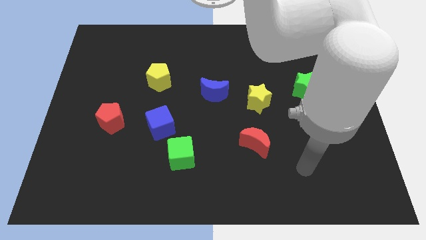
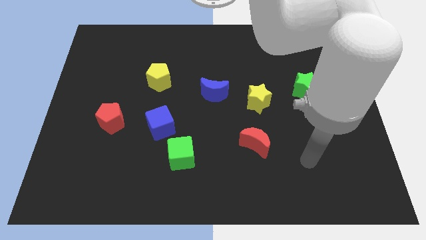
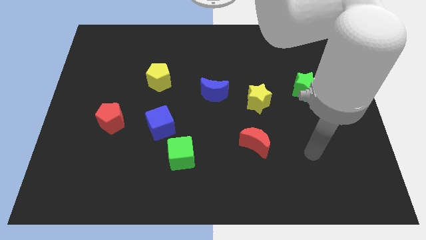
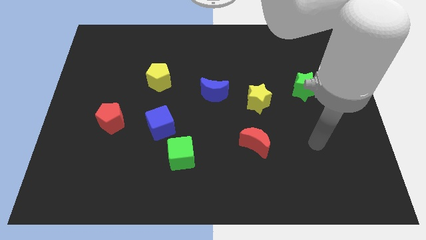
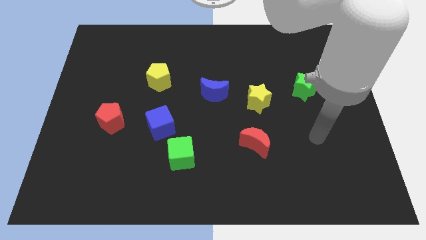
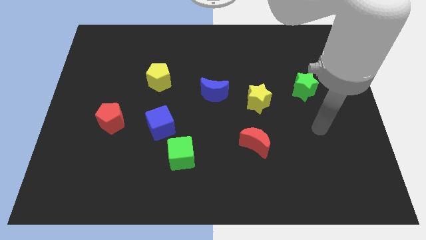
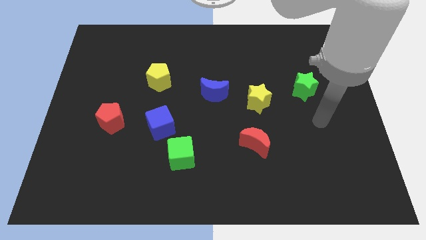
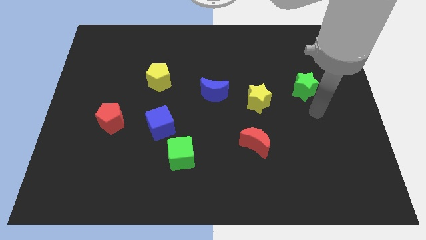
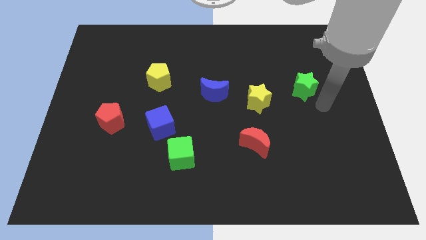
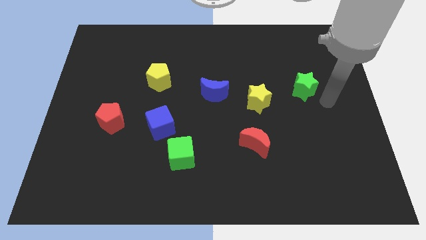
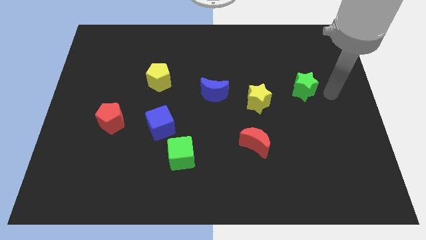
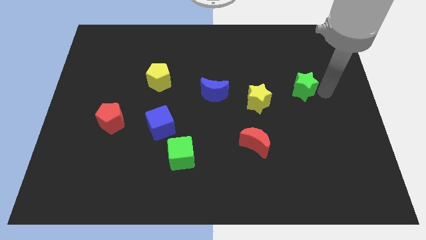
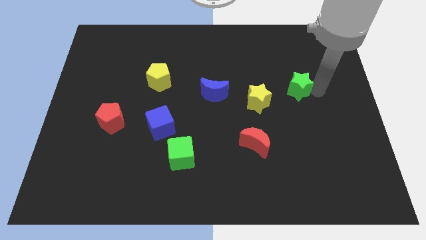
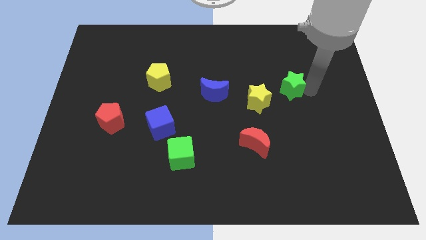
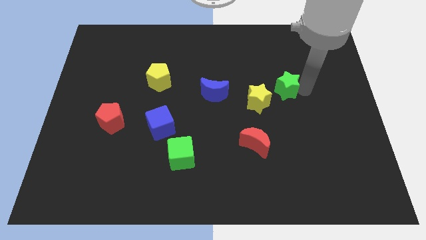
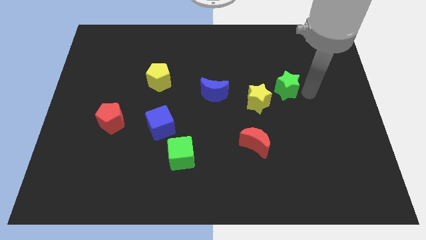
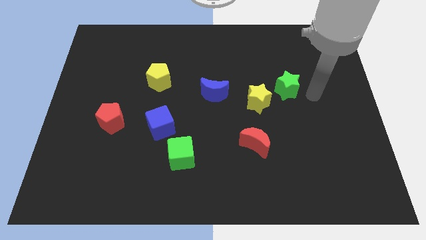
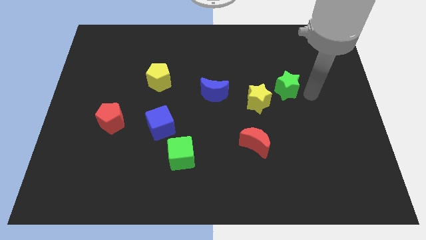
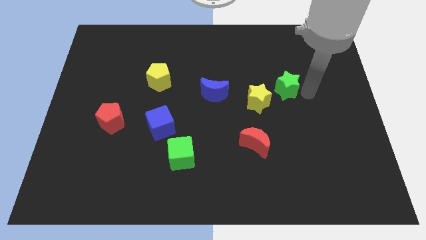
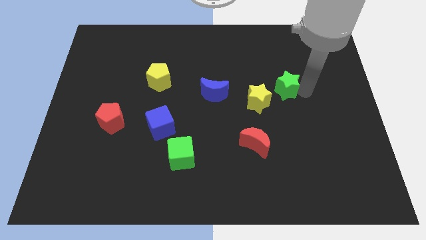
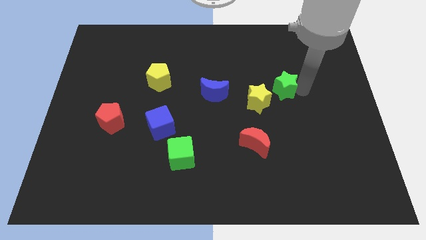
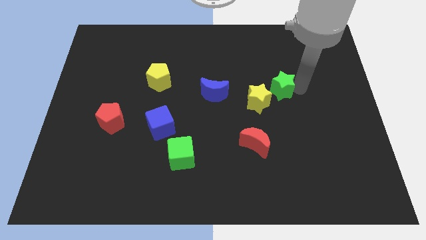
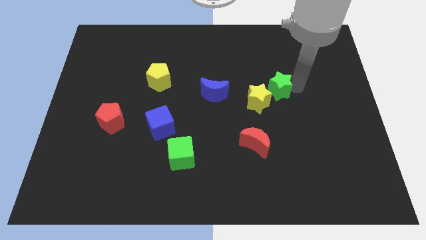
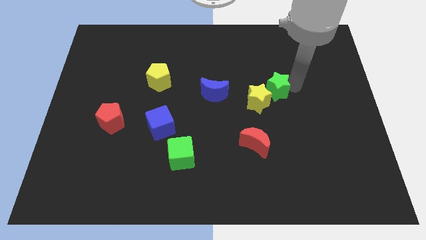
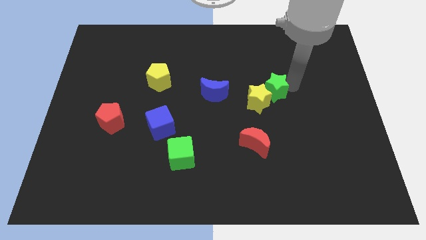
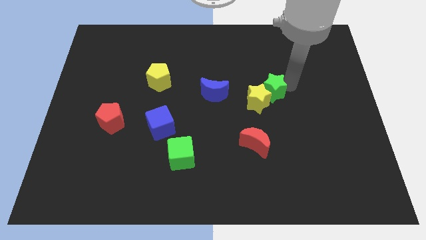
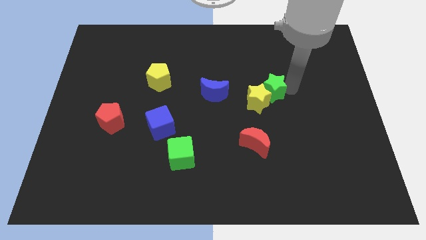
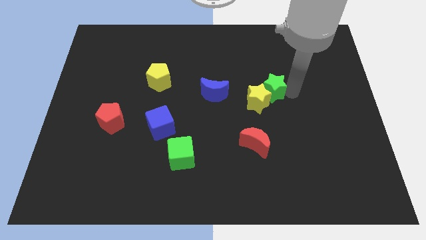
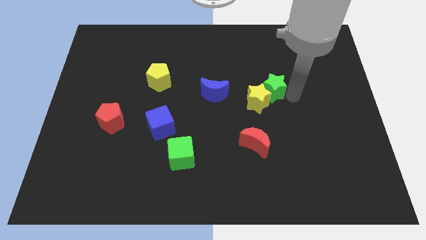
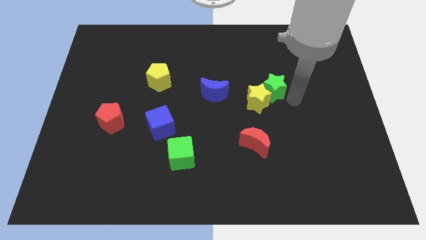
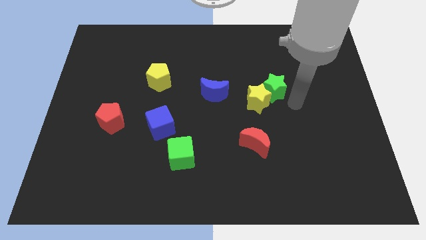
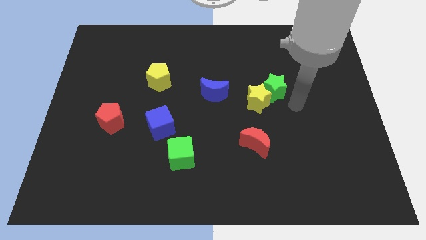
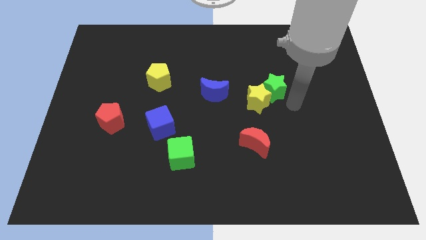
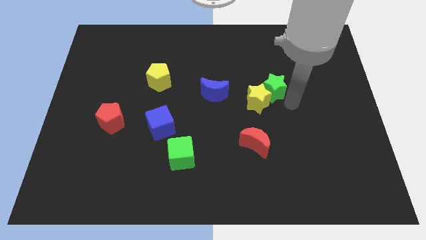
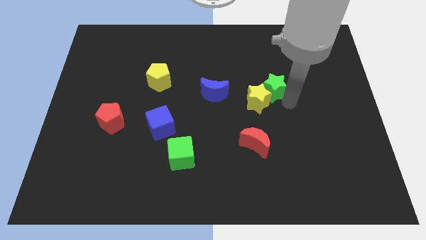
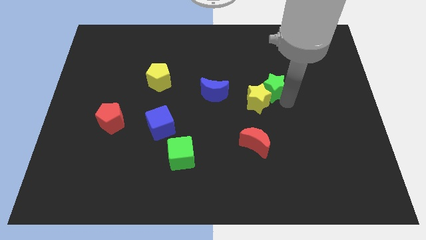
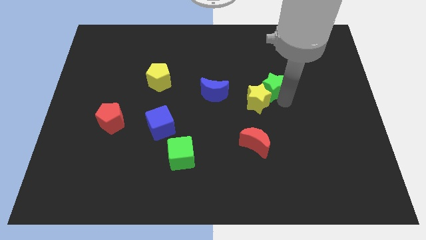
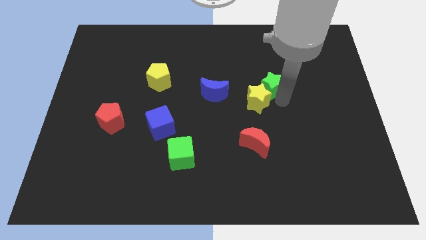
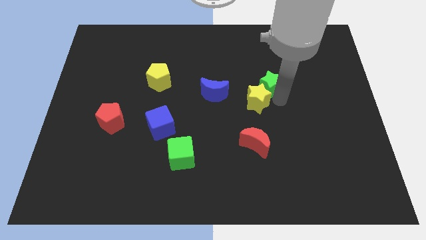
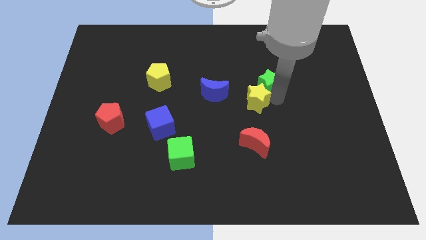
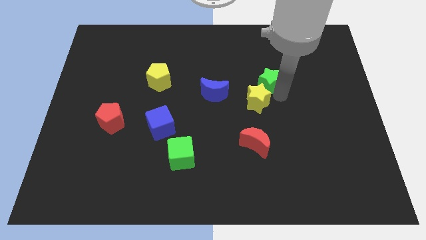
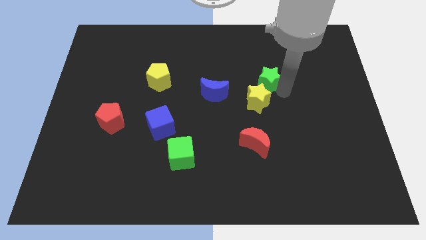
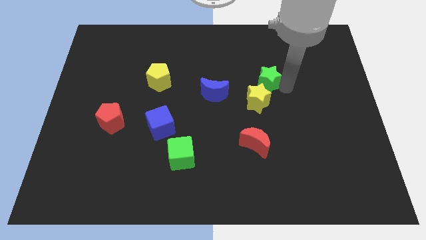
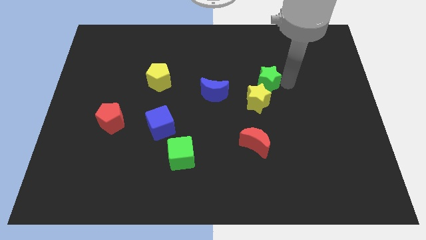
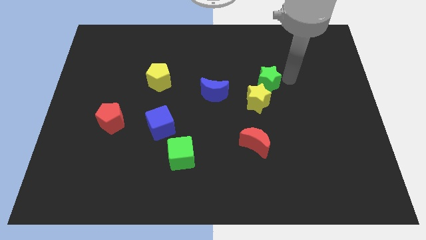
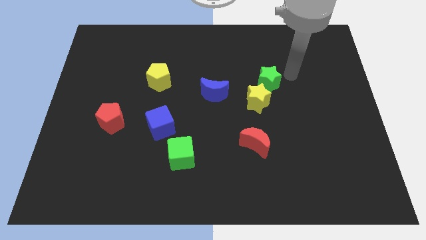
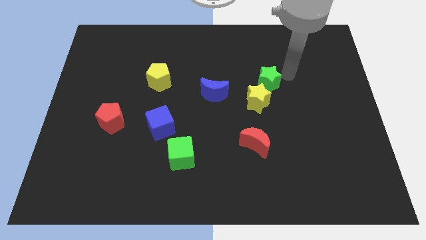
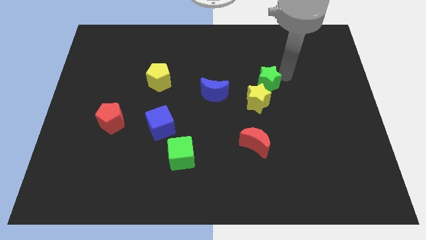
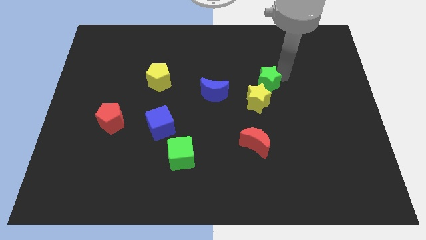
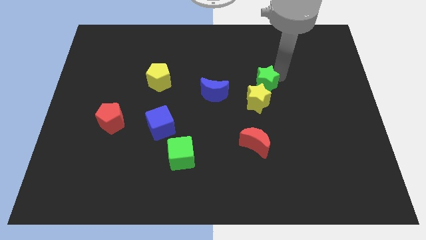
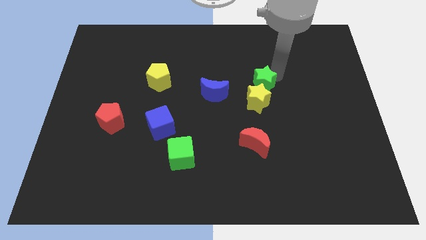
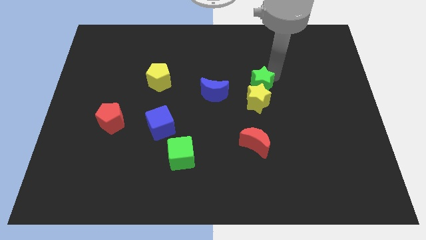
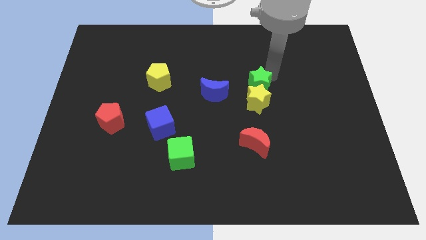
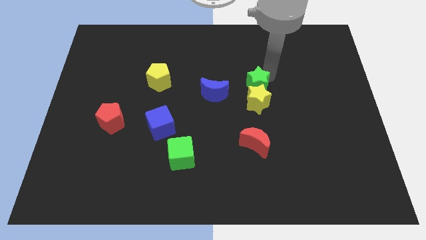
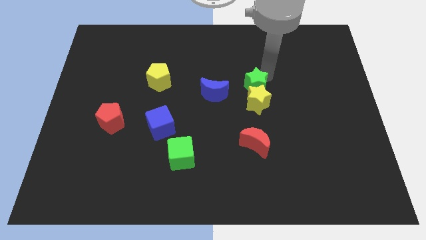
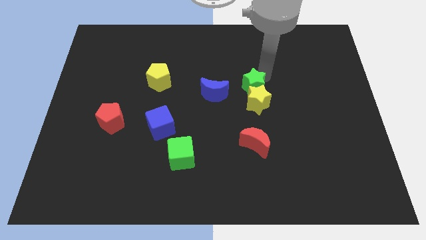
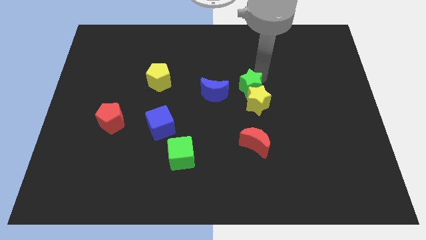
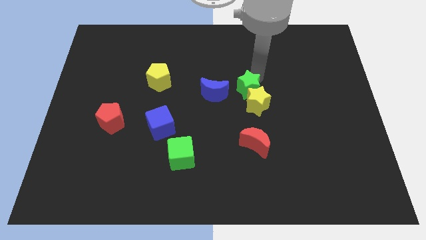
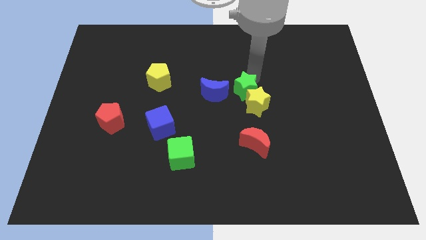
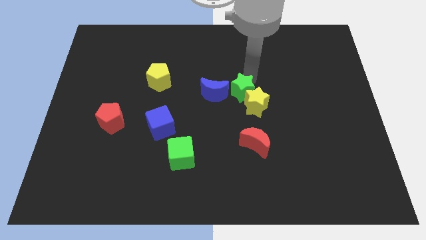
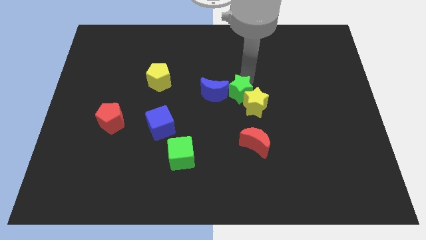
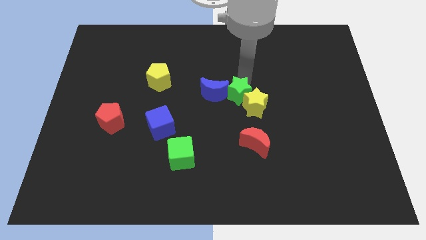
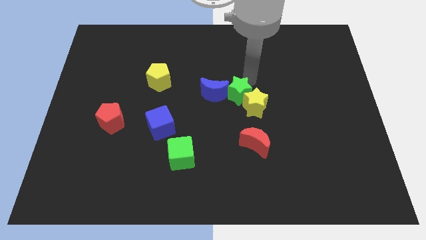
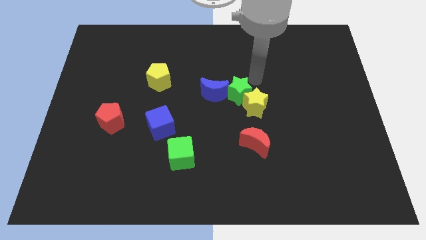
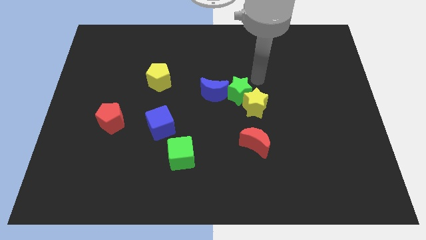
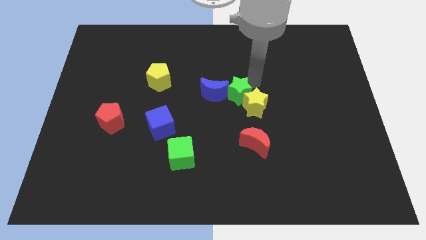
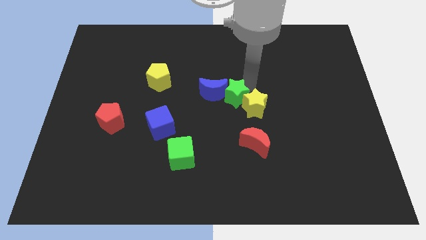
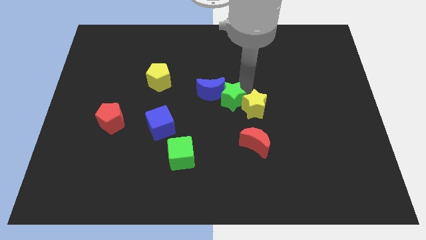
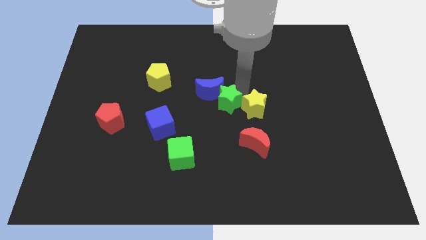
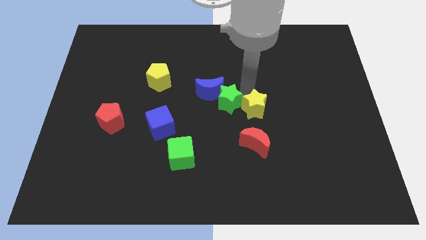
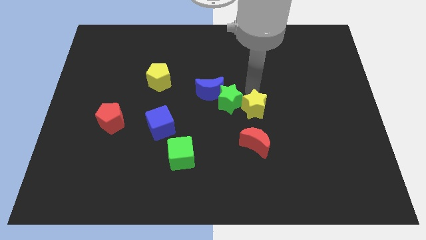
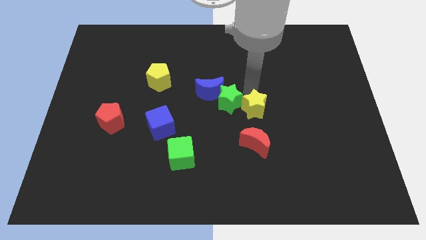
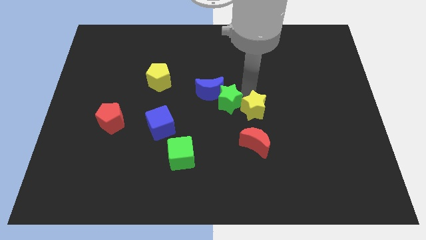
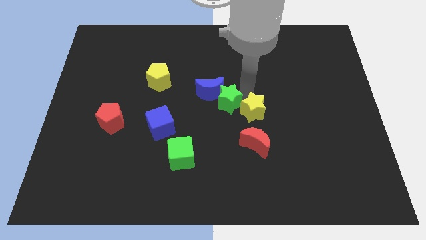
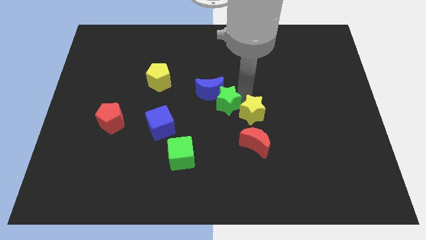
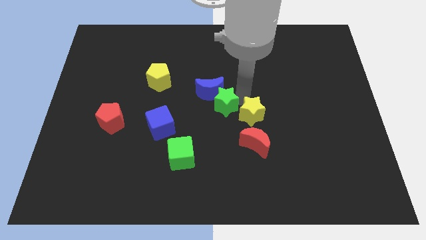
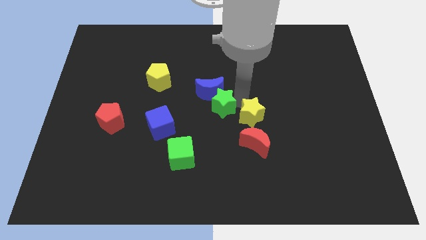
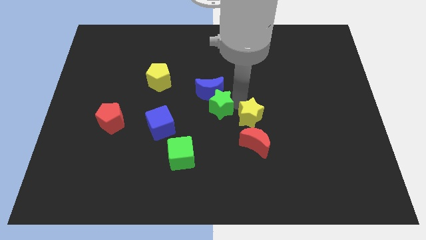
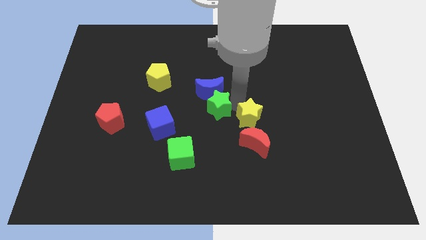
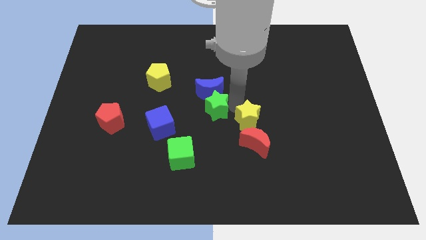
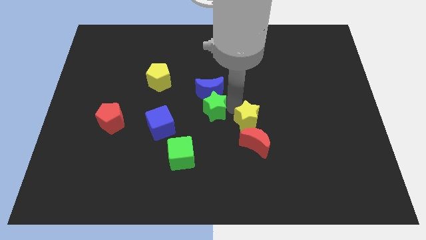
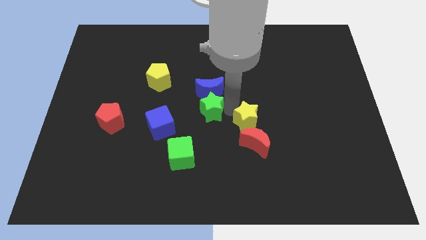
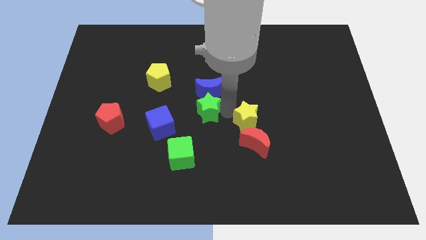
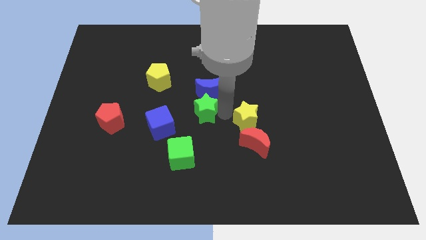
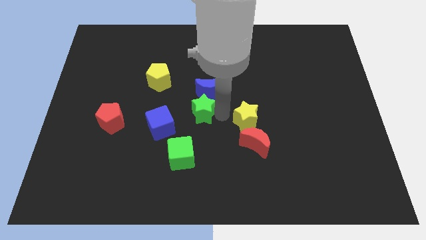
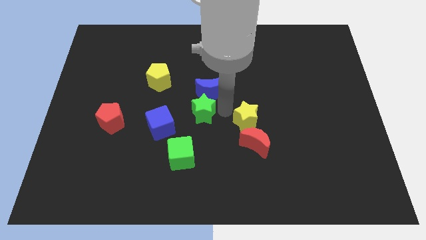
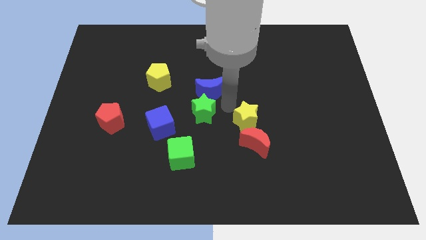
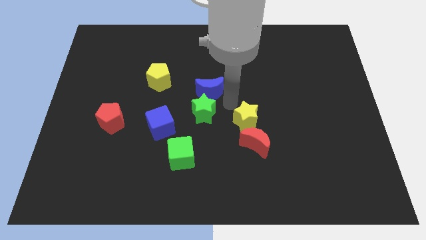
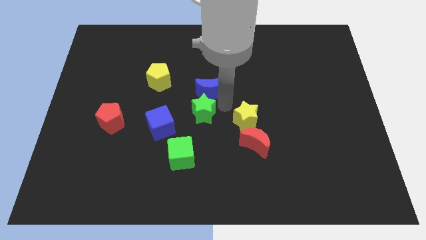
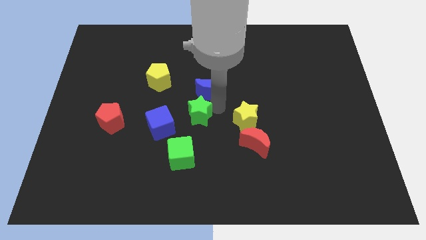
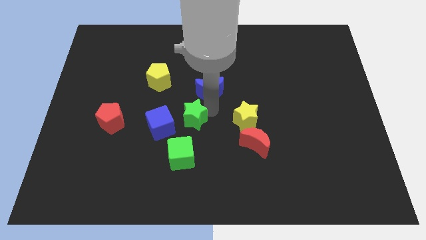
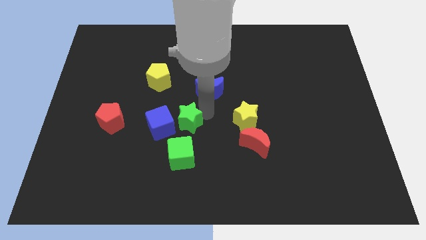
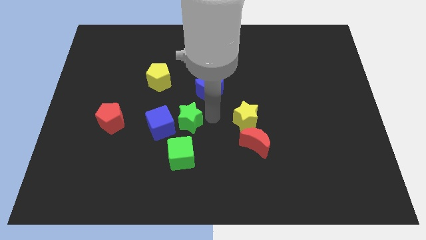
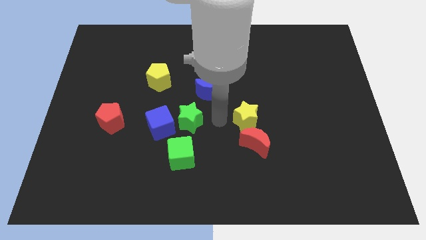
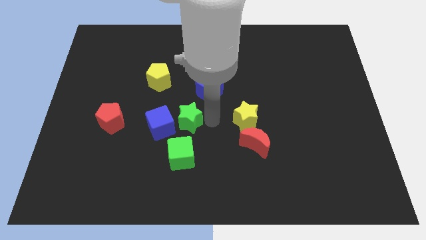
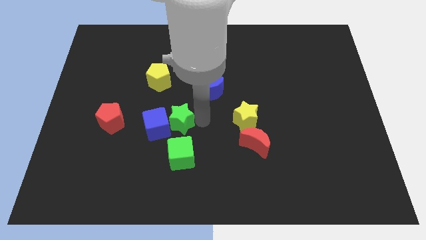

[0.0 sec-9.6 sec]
move the green star just right of the red pentagon
